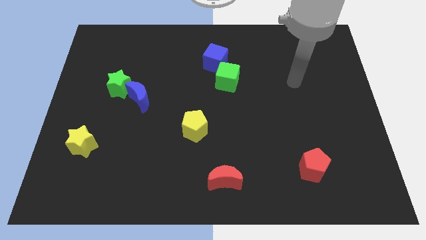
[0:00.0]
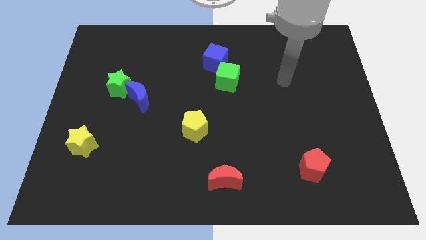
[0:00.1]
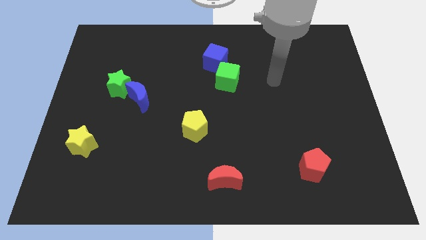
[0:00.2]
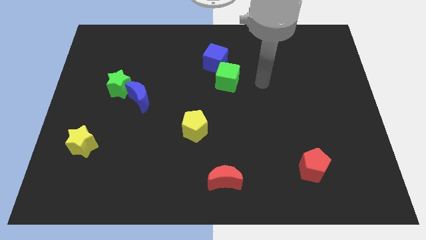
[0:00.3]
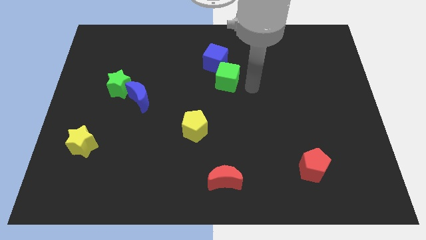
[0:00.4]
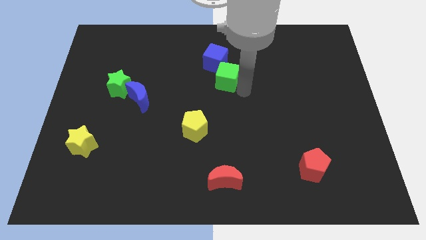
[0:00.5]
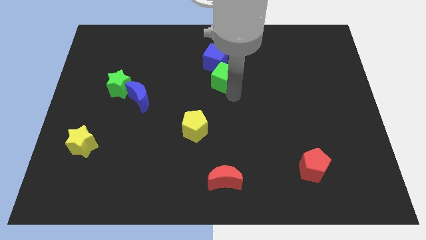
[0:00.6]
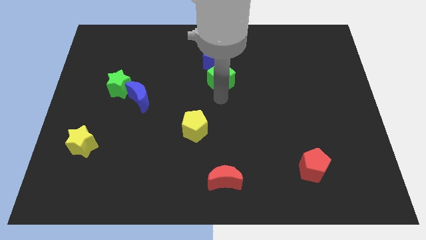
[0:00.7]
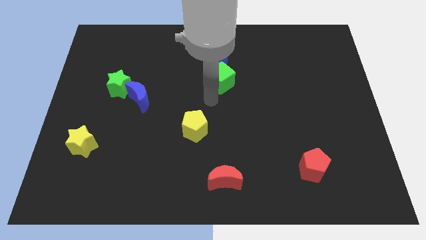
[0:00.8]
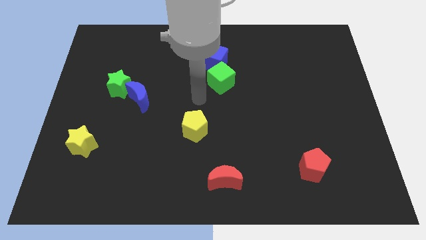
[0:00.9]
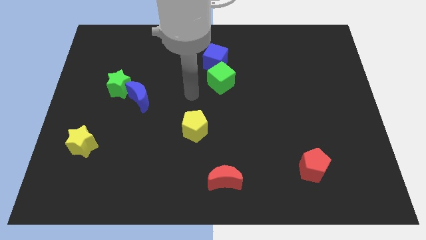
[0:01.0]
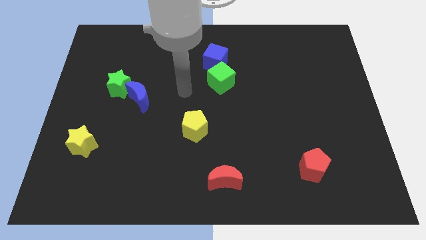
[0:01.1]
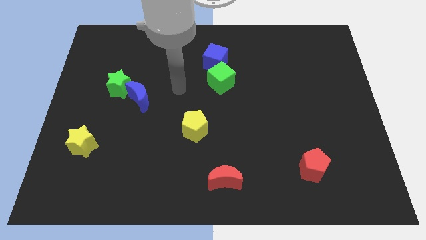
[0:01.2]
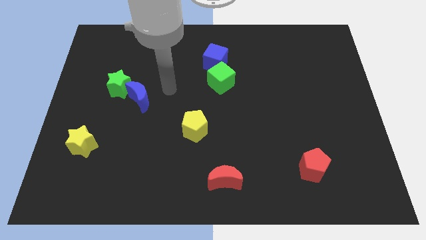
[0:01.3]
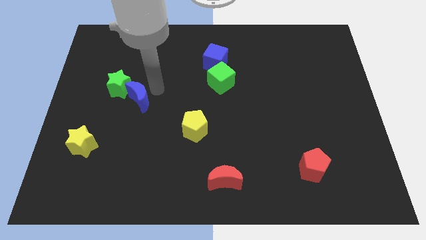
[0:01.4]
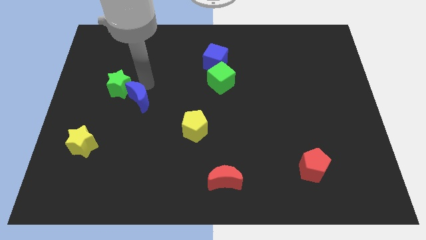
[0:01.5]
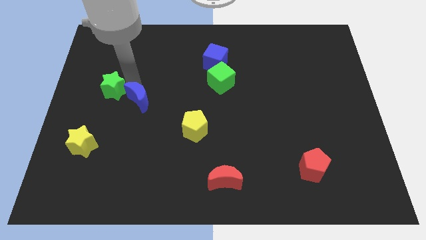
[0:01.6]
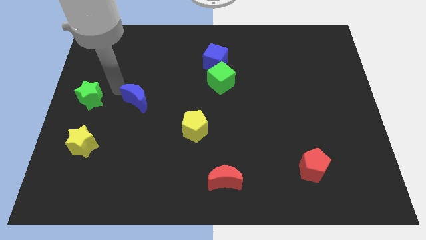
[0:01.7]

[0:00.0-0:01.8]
pull the blue moon apart from the green star

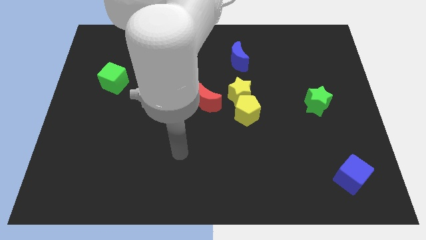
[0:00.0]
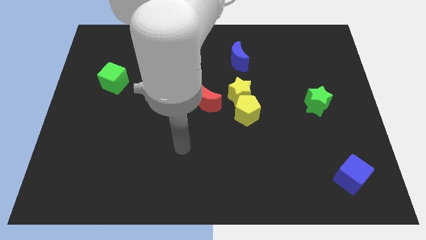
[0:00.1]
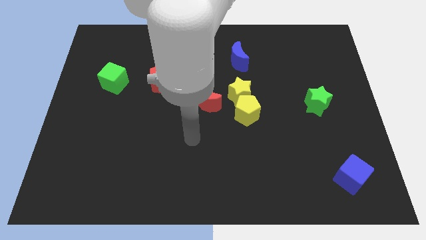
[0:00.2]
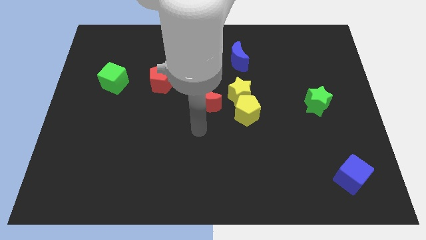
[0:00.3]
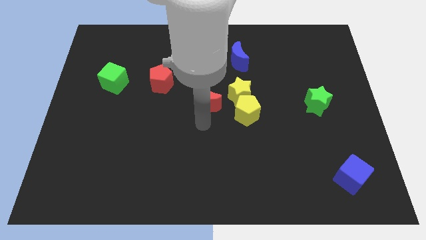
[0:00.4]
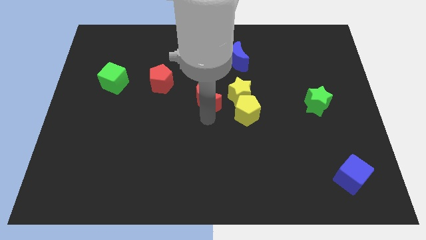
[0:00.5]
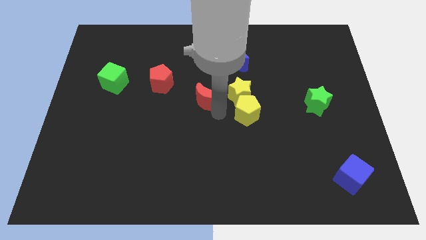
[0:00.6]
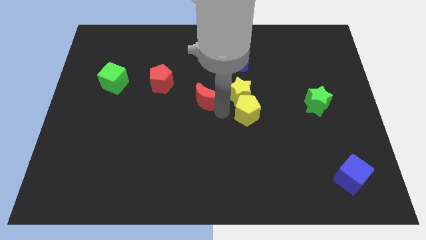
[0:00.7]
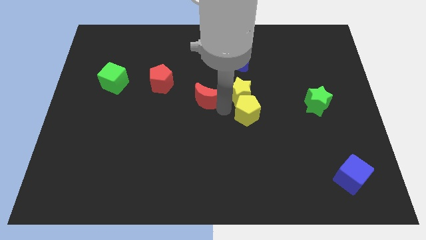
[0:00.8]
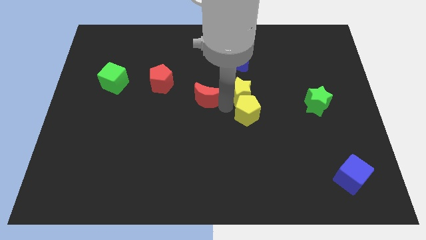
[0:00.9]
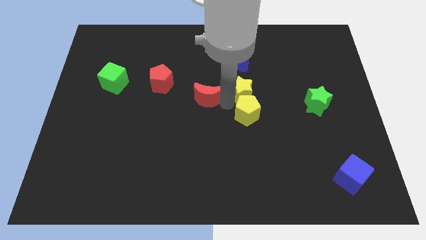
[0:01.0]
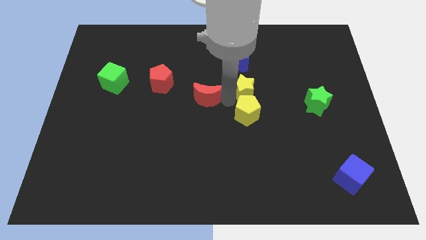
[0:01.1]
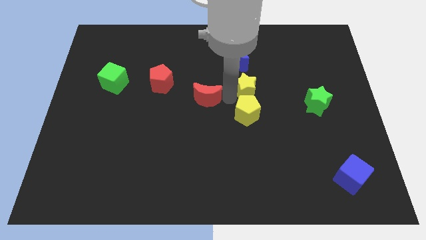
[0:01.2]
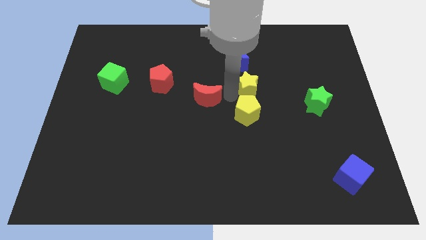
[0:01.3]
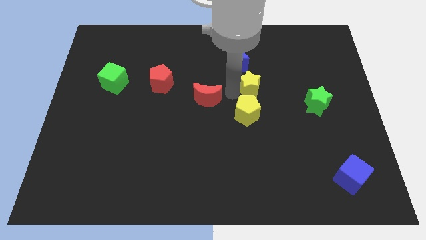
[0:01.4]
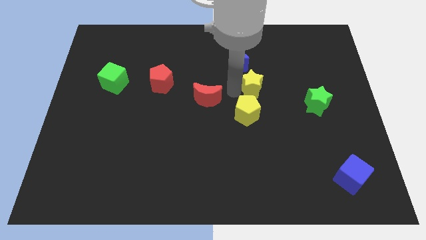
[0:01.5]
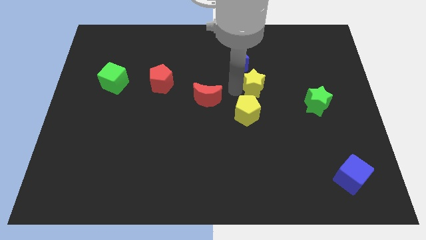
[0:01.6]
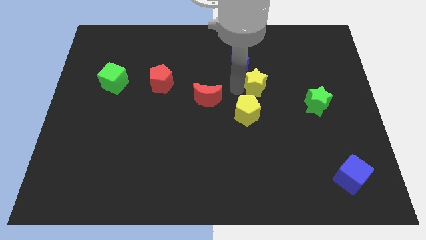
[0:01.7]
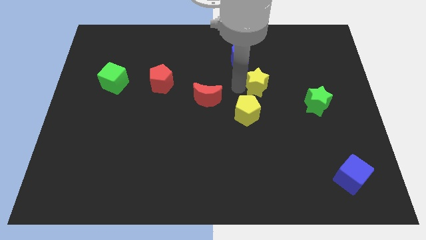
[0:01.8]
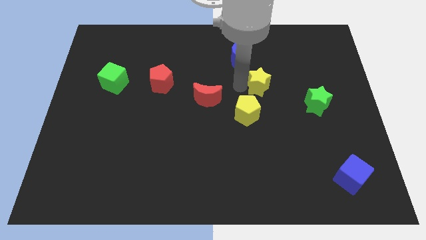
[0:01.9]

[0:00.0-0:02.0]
separate the yellow star from the yellow pentagon and red moon

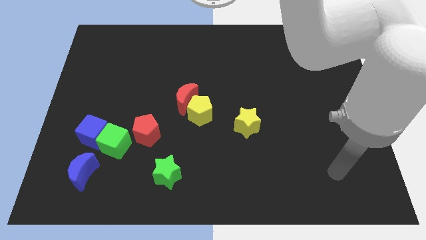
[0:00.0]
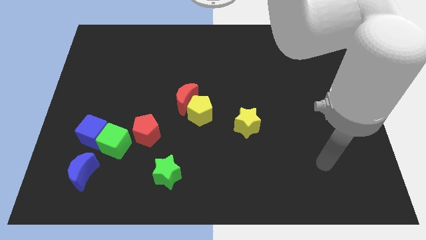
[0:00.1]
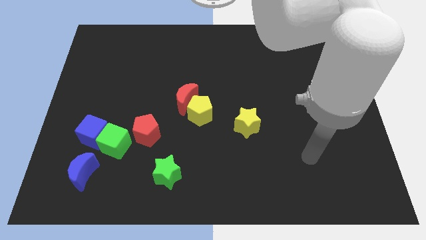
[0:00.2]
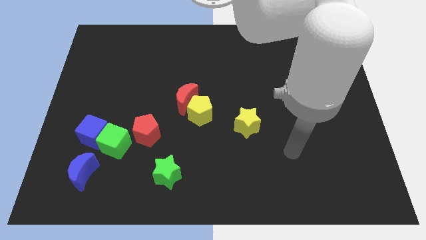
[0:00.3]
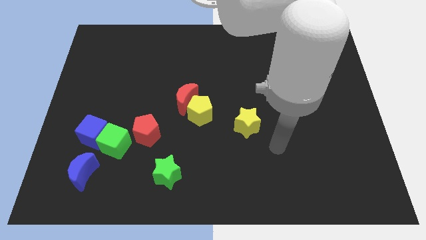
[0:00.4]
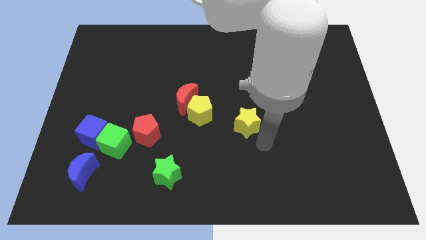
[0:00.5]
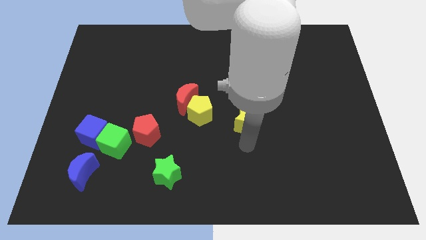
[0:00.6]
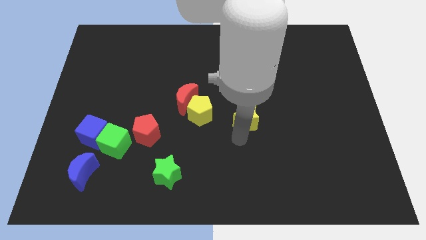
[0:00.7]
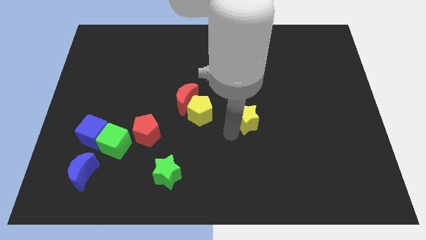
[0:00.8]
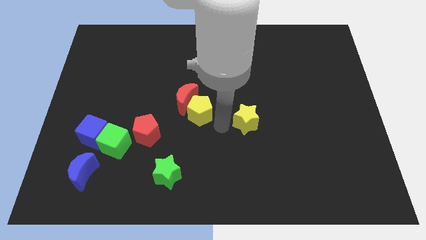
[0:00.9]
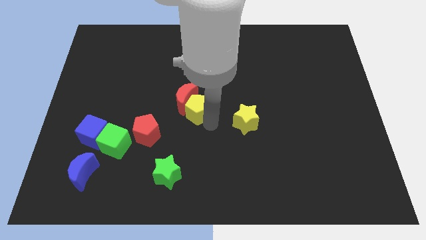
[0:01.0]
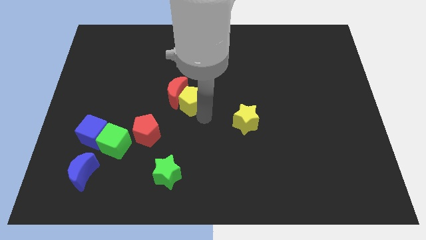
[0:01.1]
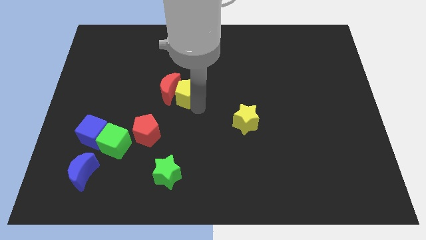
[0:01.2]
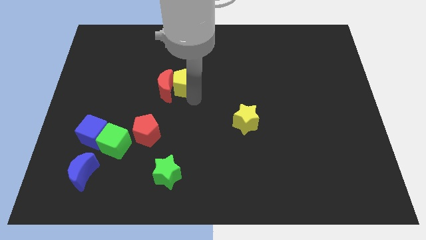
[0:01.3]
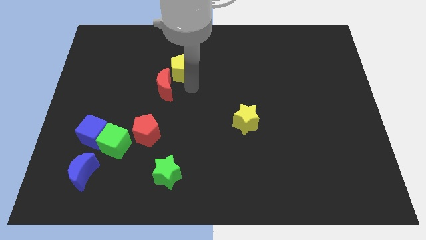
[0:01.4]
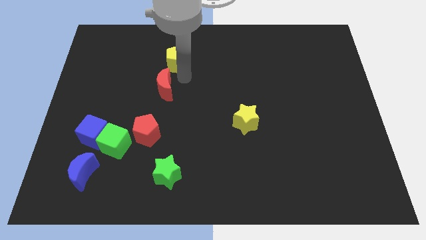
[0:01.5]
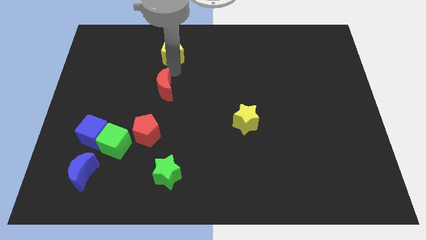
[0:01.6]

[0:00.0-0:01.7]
move the red moon away from the yellow pentagon

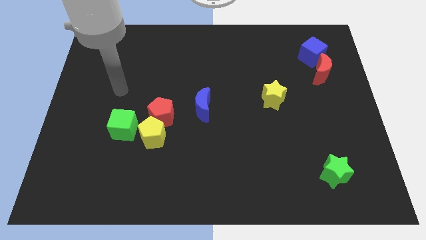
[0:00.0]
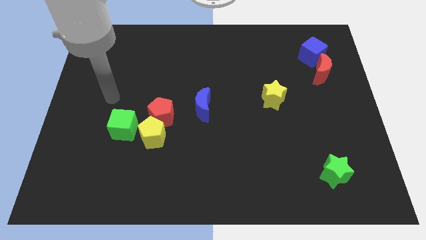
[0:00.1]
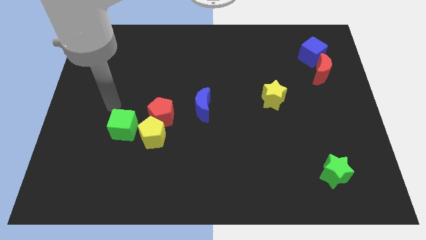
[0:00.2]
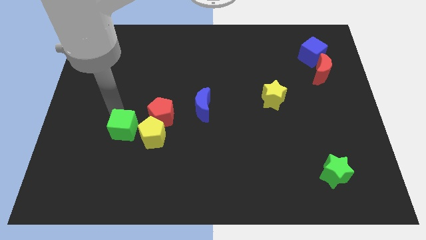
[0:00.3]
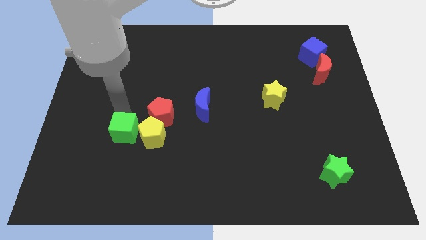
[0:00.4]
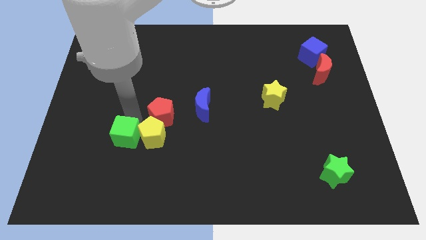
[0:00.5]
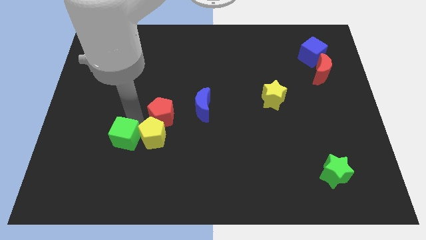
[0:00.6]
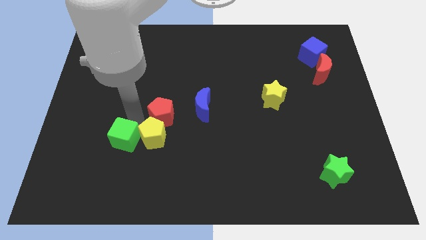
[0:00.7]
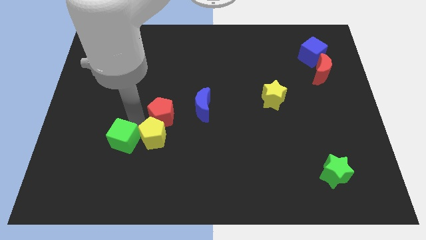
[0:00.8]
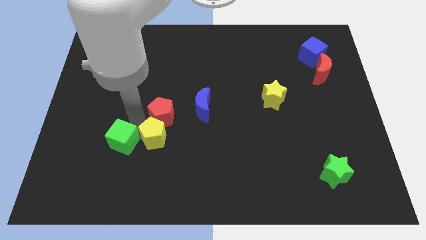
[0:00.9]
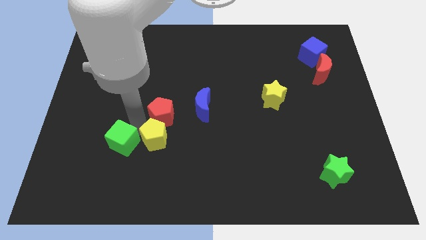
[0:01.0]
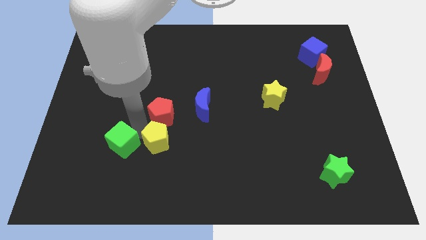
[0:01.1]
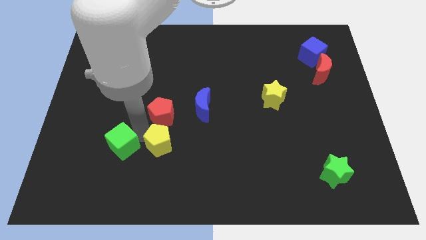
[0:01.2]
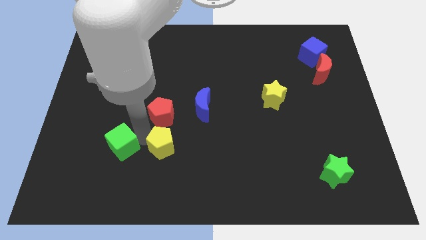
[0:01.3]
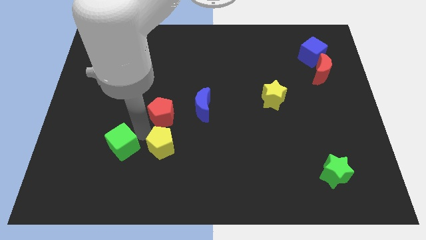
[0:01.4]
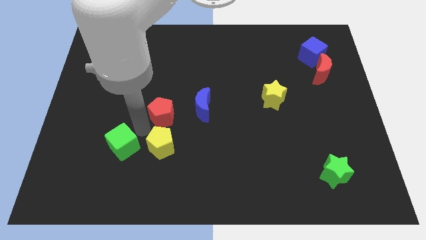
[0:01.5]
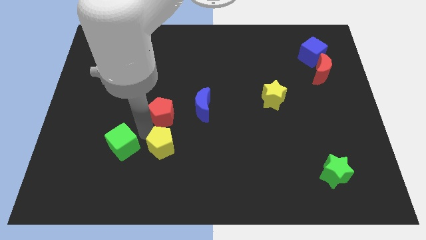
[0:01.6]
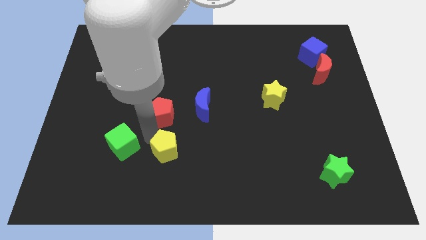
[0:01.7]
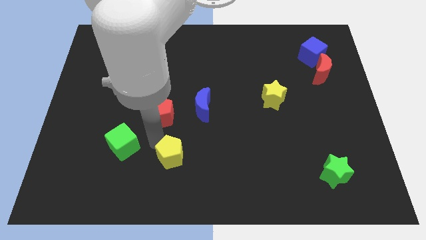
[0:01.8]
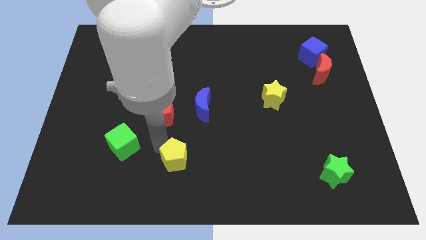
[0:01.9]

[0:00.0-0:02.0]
separate the yellow pentagon from the red pentagon and green cube

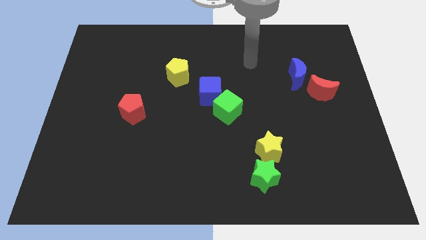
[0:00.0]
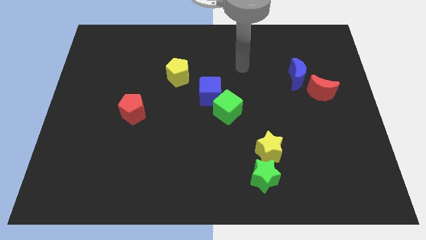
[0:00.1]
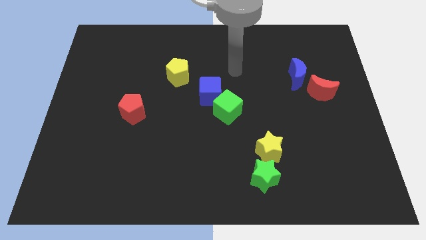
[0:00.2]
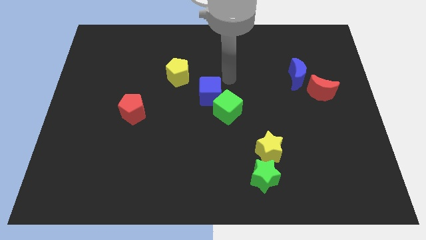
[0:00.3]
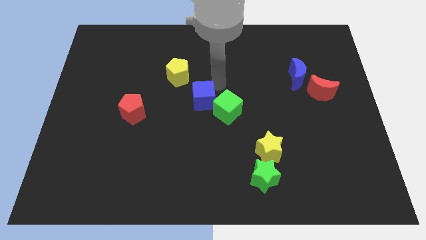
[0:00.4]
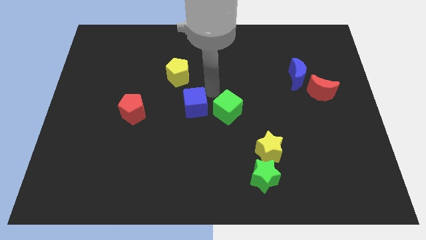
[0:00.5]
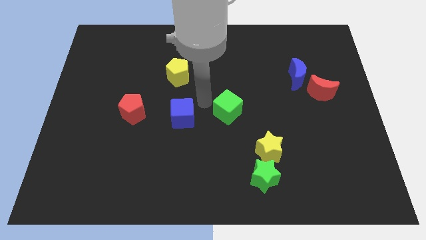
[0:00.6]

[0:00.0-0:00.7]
move the green cube away from the blue cube

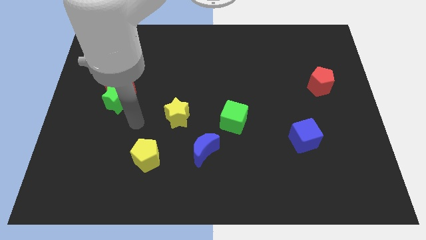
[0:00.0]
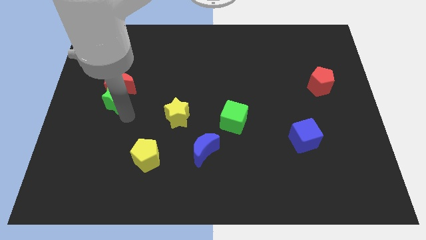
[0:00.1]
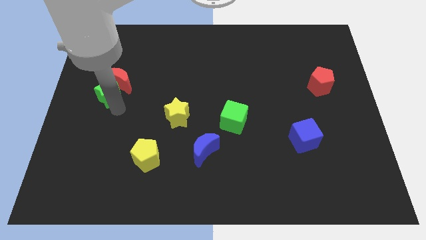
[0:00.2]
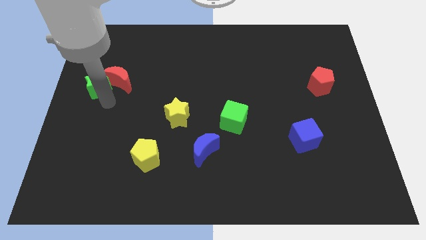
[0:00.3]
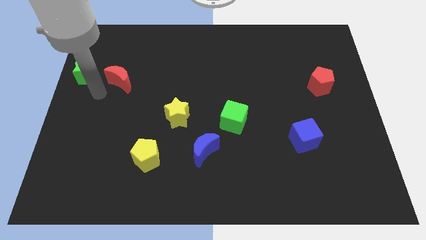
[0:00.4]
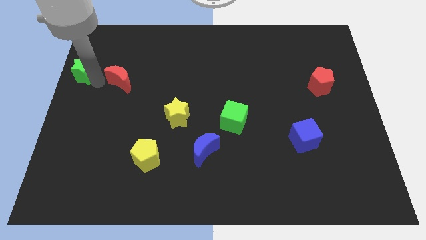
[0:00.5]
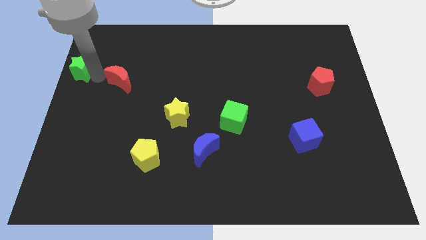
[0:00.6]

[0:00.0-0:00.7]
move the red moon away from the green star

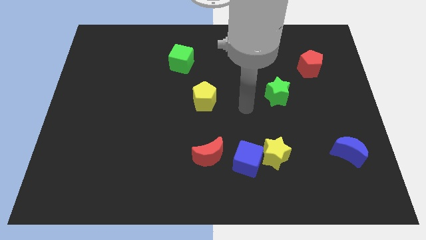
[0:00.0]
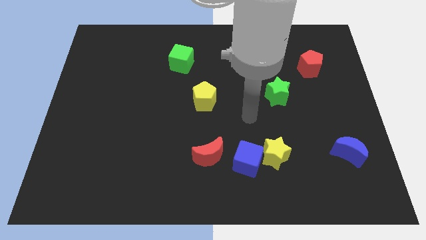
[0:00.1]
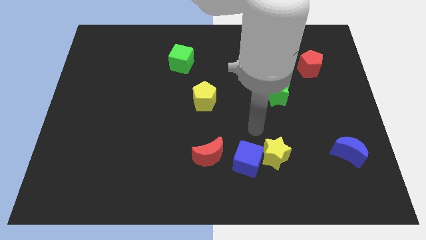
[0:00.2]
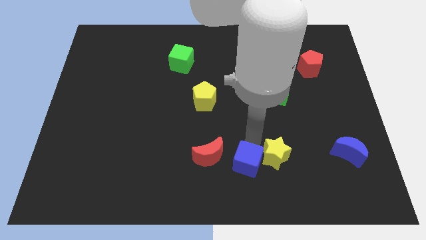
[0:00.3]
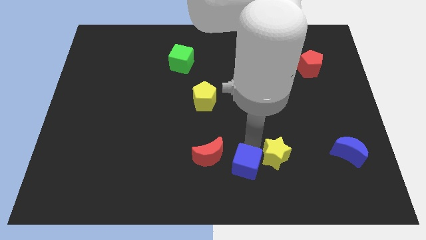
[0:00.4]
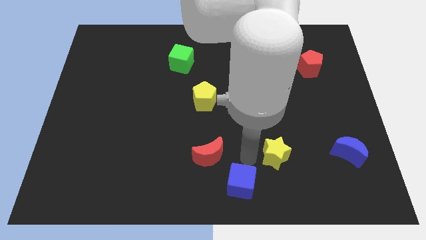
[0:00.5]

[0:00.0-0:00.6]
pull the yellow star apart from the blue cube

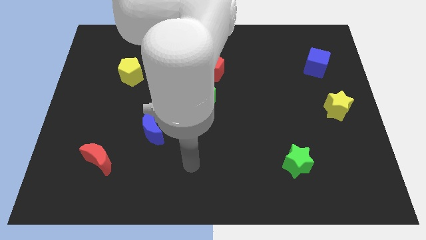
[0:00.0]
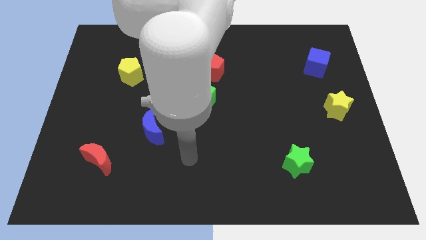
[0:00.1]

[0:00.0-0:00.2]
separate the red pentagon from the green cube
